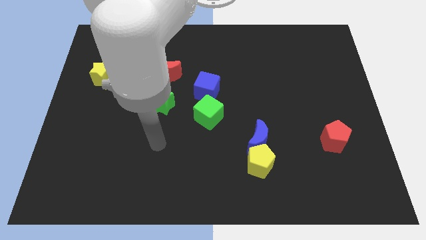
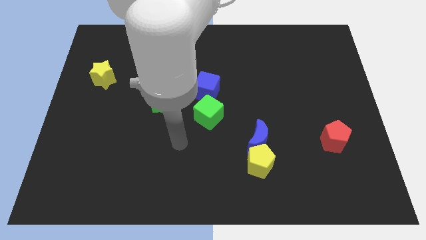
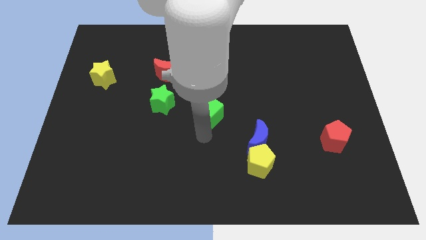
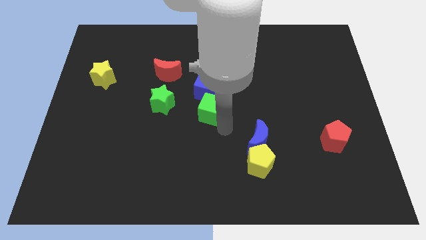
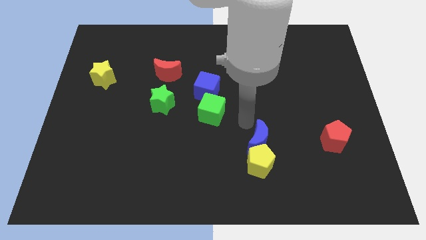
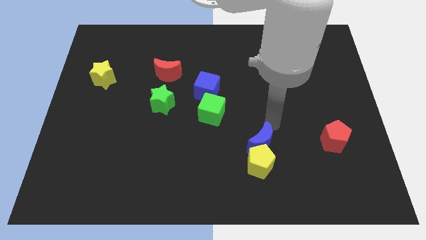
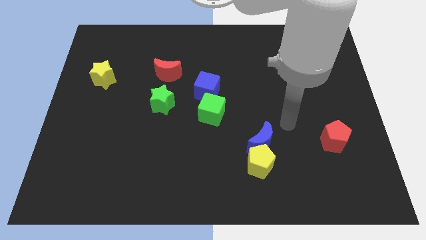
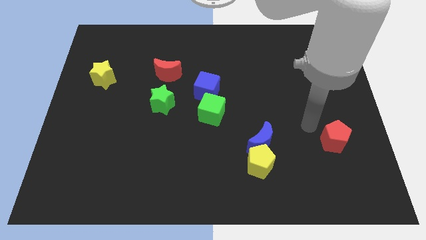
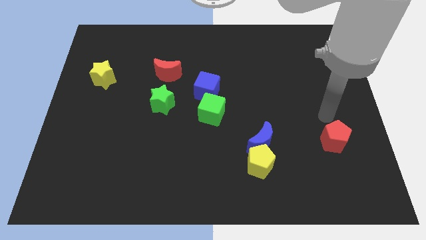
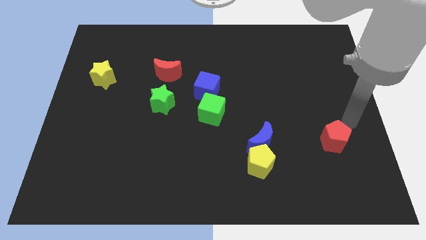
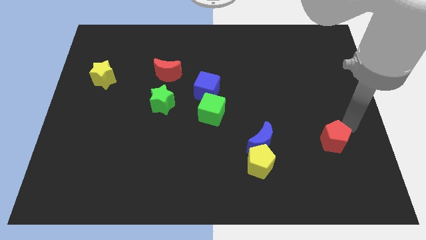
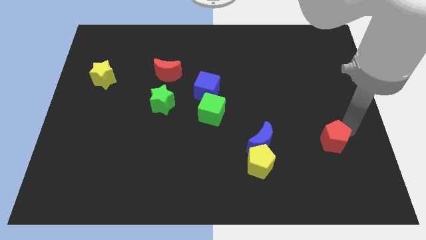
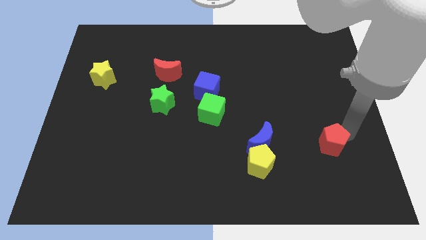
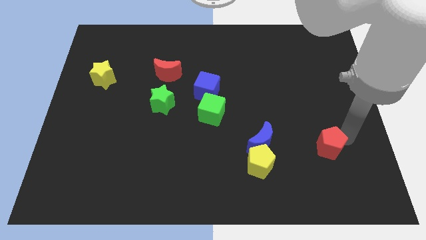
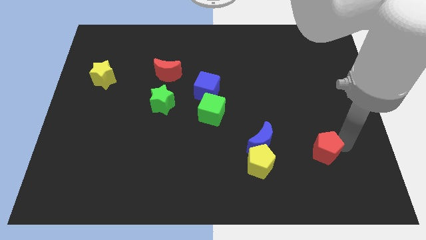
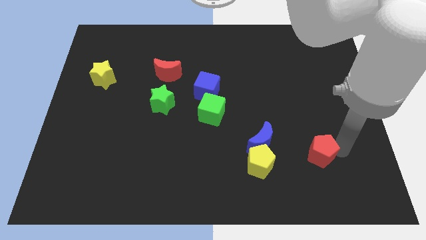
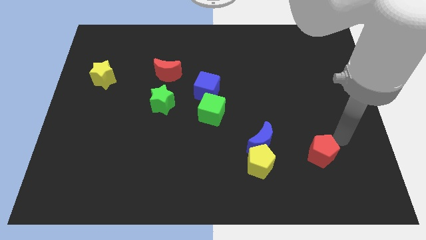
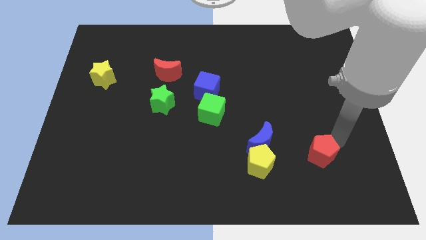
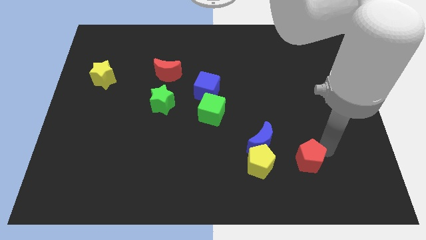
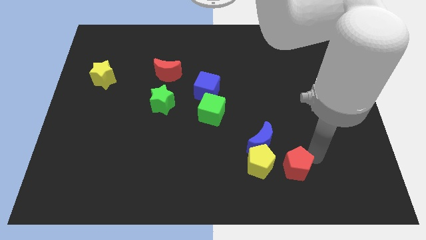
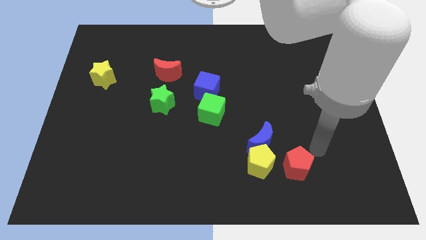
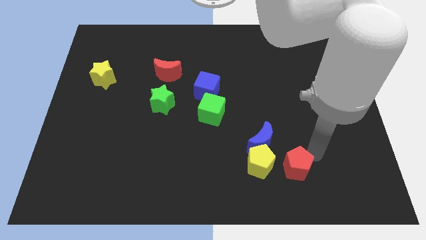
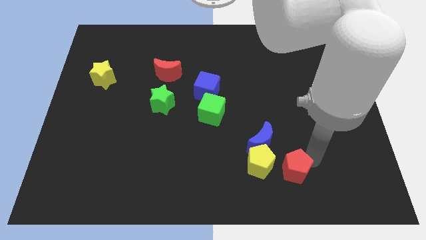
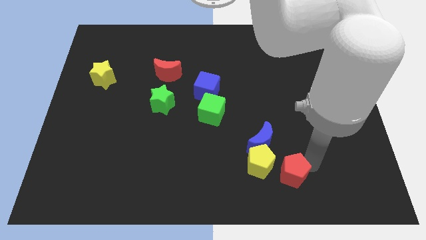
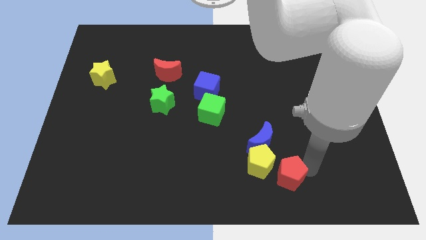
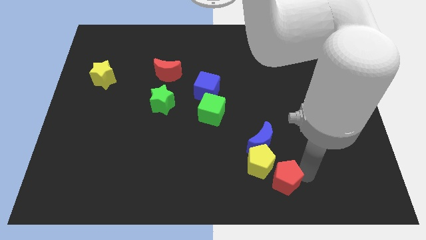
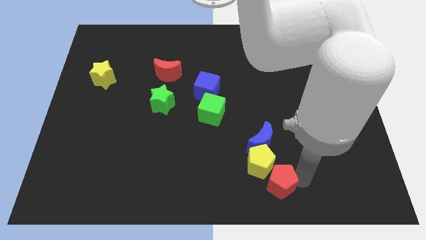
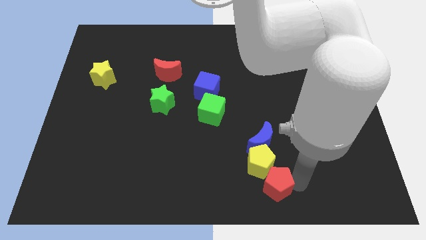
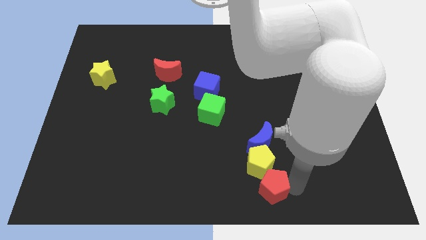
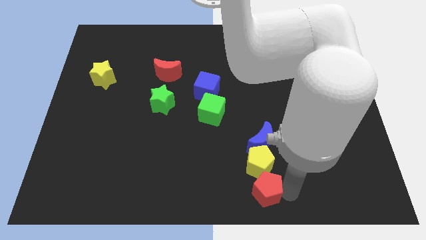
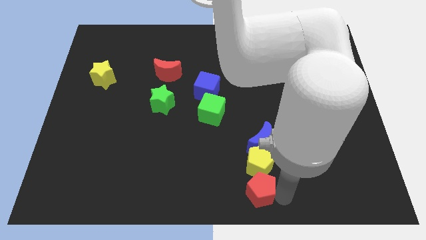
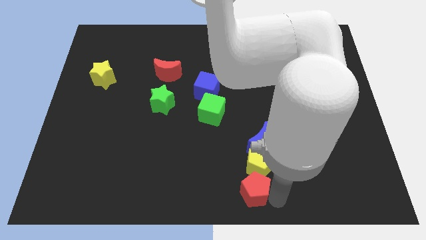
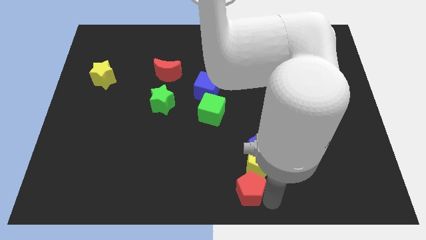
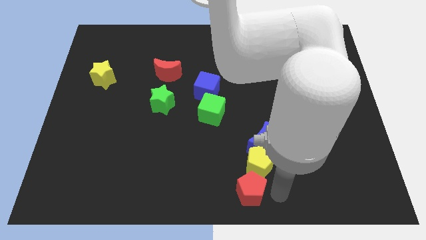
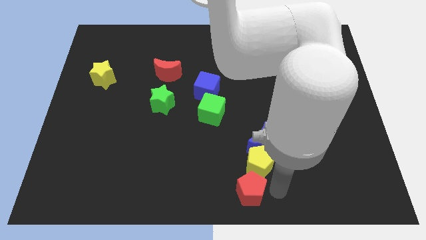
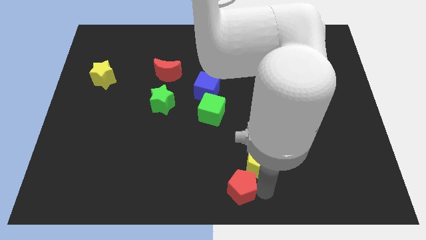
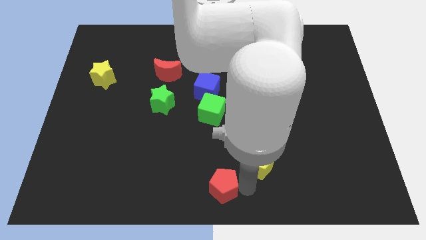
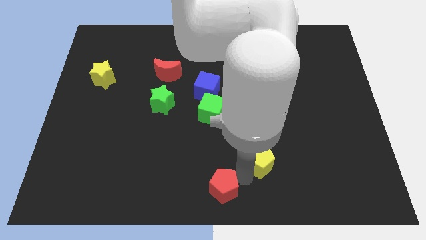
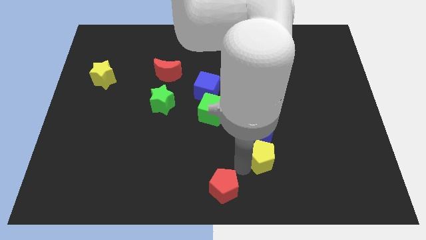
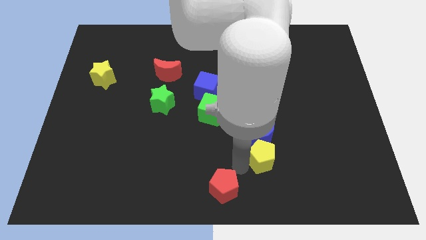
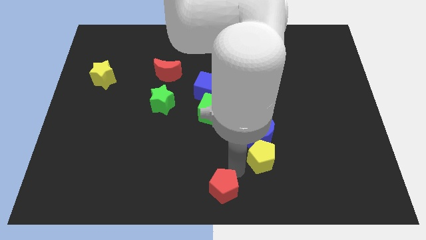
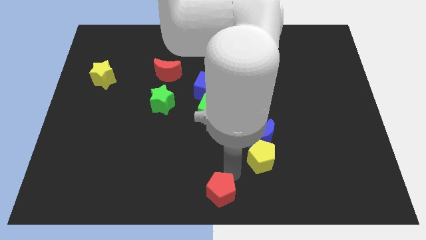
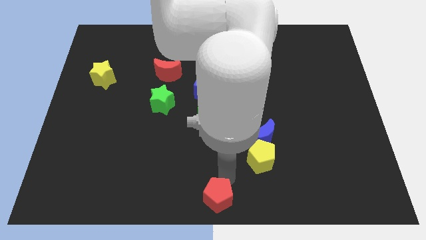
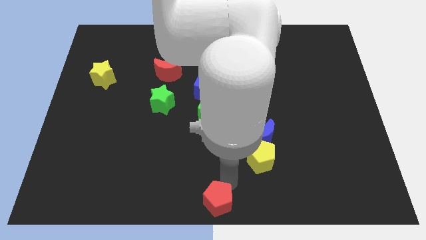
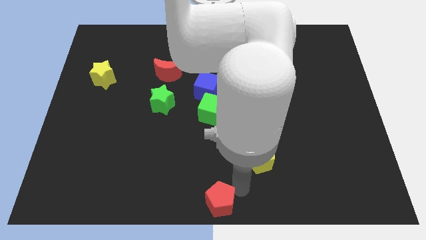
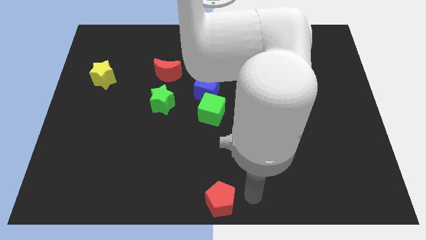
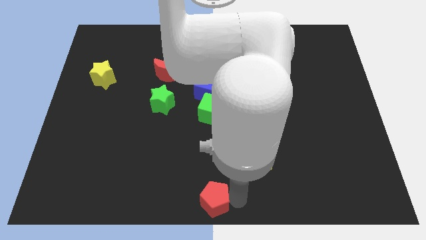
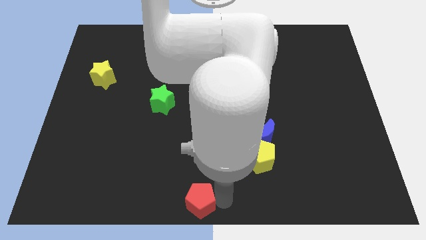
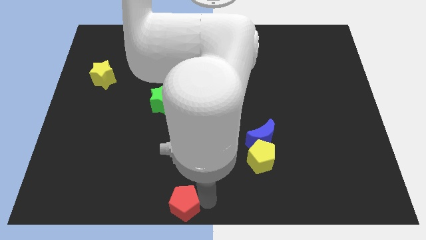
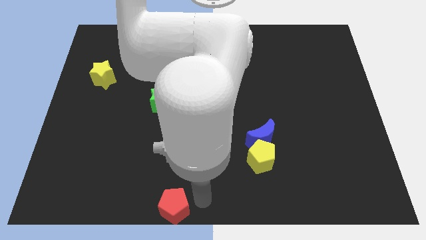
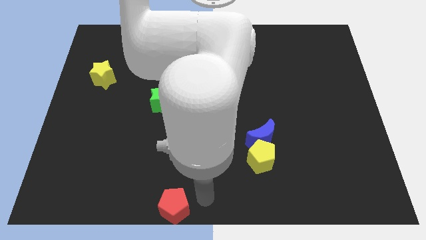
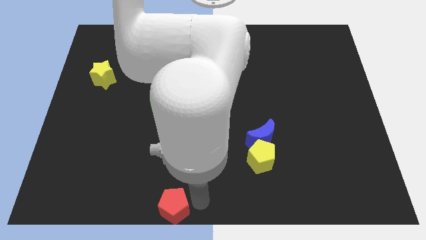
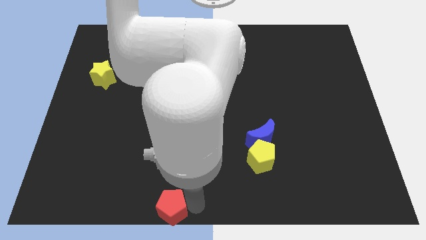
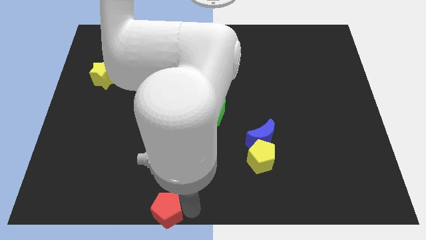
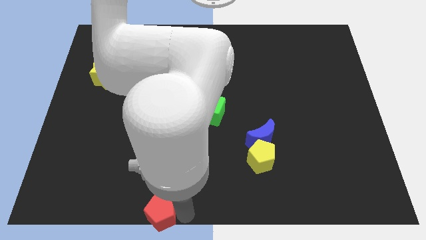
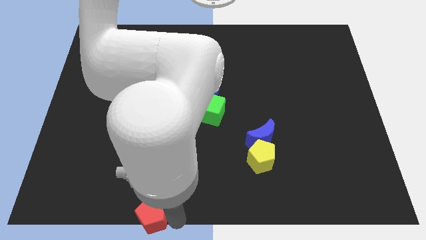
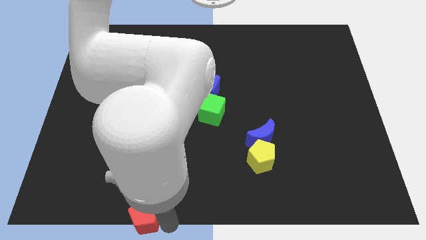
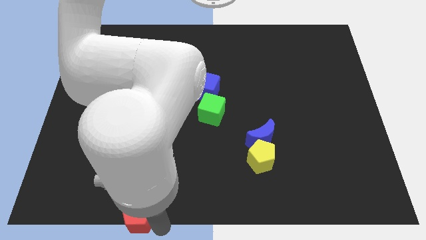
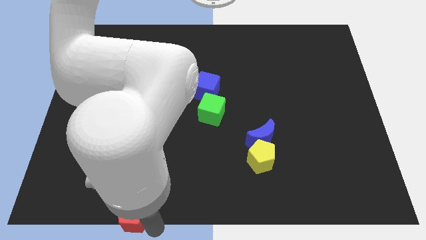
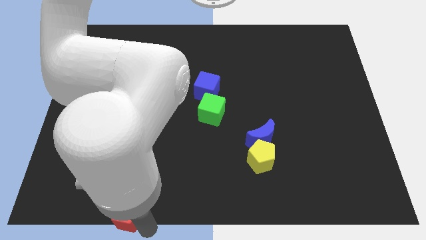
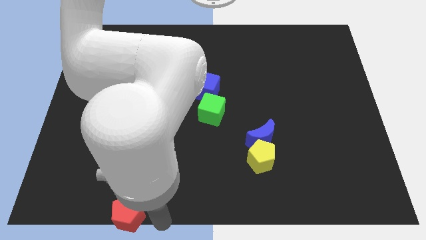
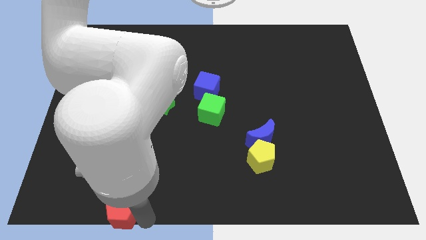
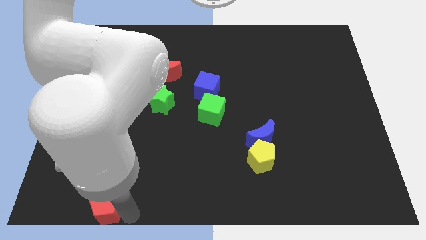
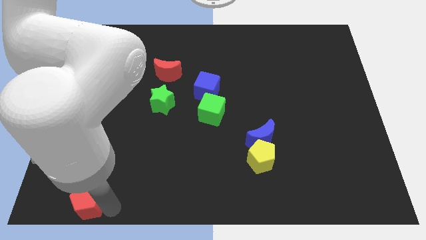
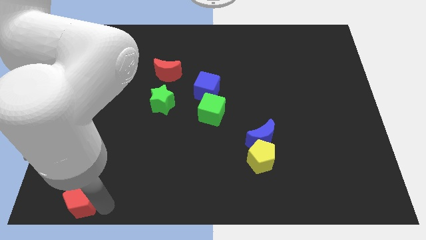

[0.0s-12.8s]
put the red pentagon to the bottom left
